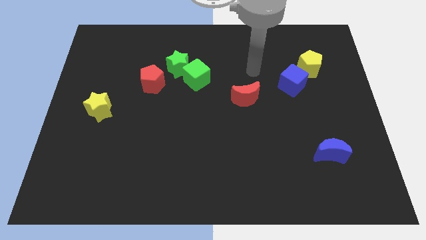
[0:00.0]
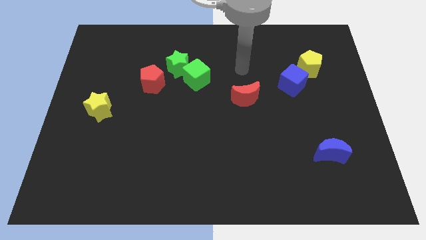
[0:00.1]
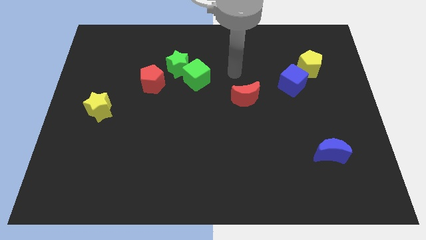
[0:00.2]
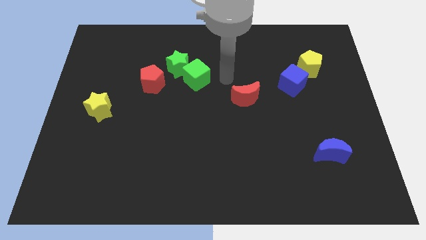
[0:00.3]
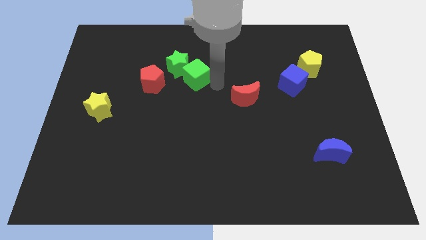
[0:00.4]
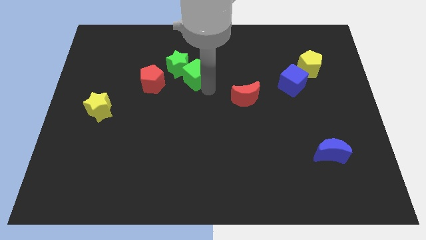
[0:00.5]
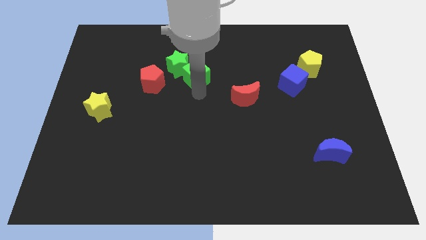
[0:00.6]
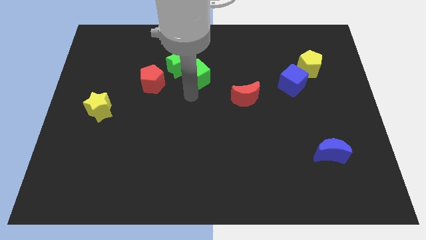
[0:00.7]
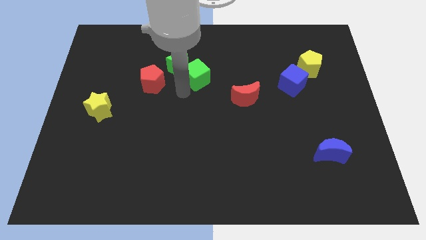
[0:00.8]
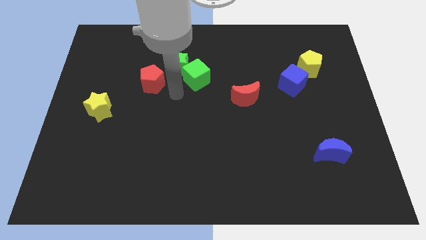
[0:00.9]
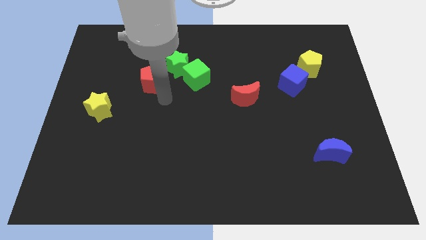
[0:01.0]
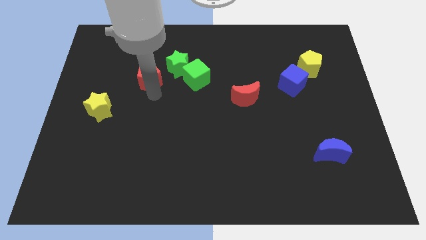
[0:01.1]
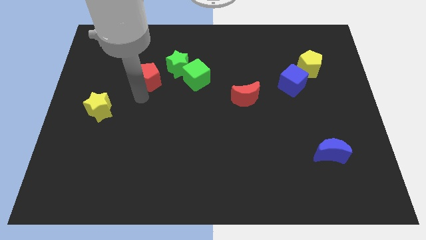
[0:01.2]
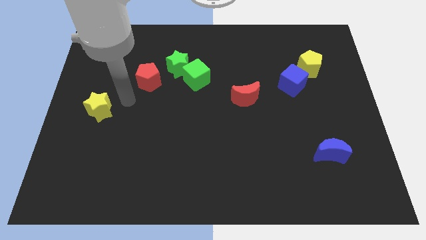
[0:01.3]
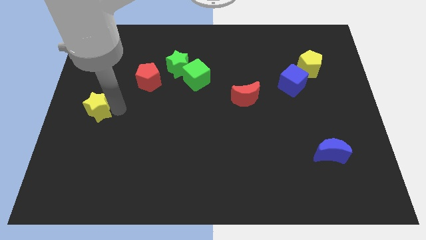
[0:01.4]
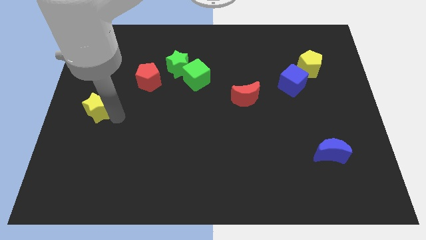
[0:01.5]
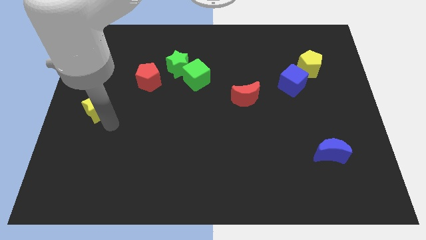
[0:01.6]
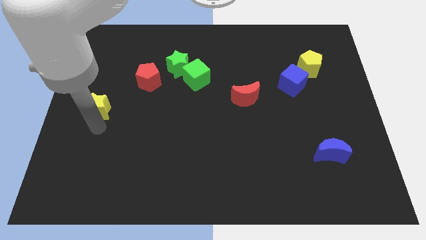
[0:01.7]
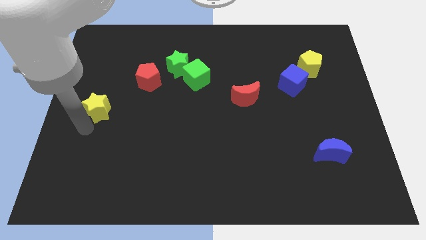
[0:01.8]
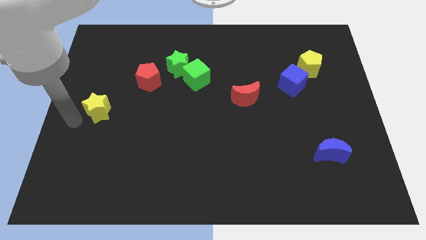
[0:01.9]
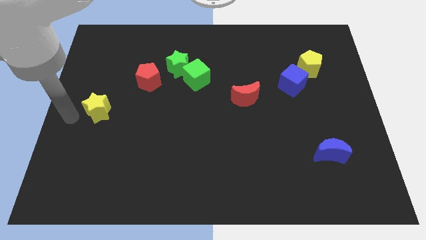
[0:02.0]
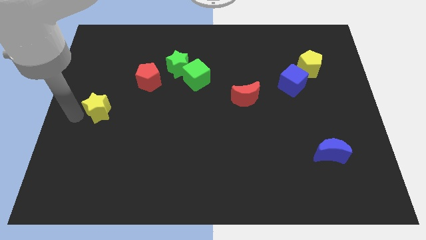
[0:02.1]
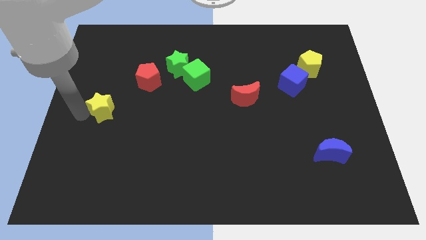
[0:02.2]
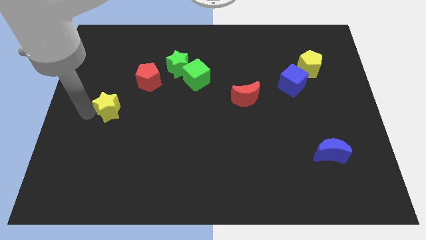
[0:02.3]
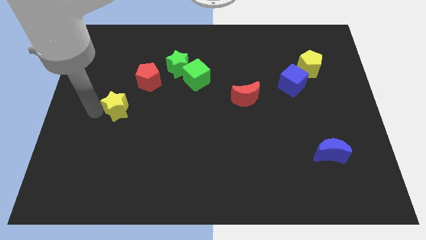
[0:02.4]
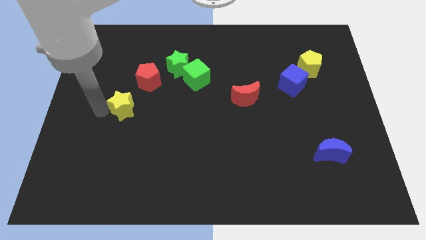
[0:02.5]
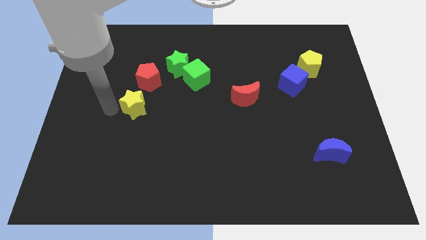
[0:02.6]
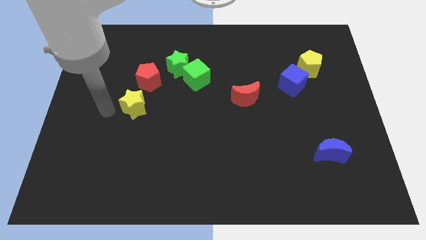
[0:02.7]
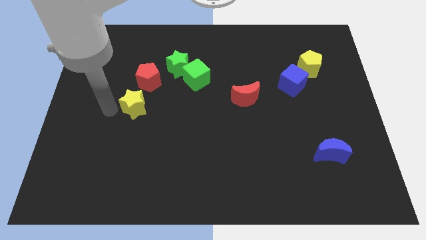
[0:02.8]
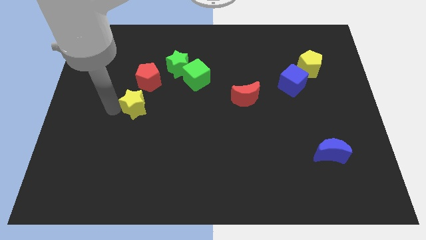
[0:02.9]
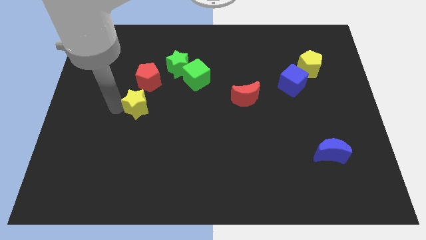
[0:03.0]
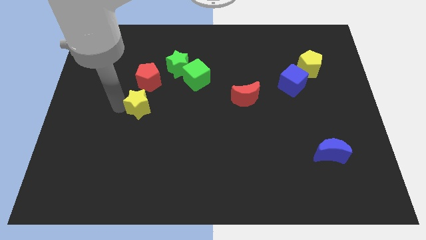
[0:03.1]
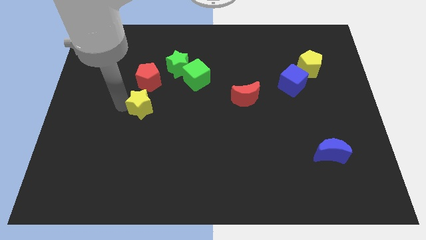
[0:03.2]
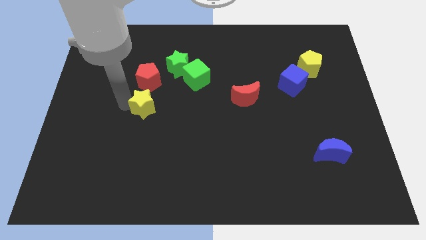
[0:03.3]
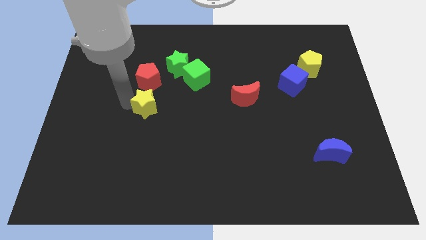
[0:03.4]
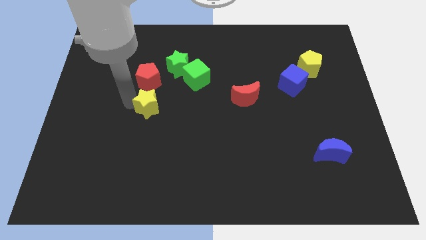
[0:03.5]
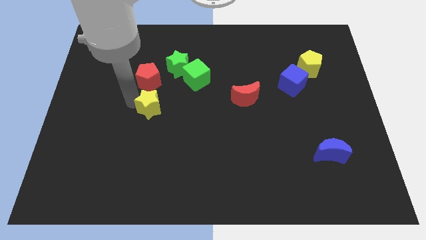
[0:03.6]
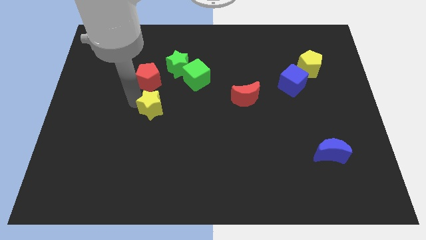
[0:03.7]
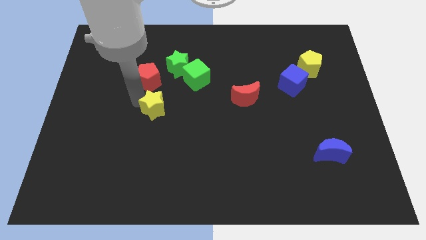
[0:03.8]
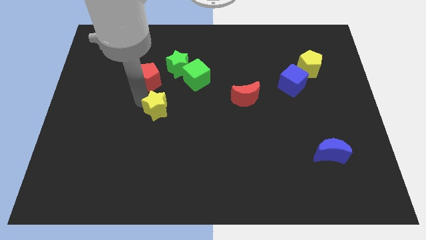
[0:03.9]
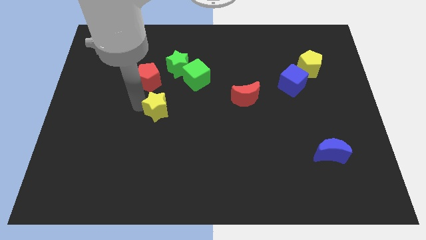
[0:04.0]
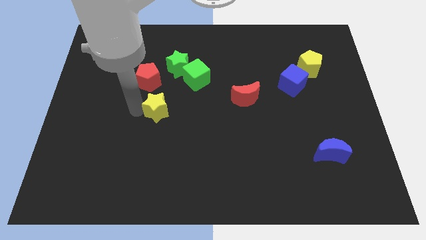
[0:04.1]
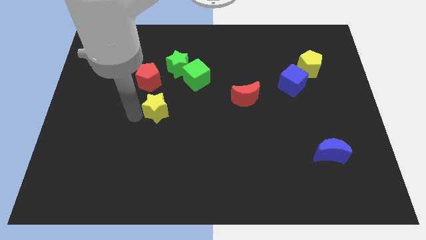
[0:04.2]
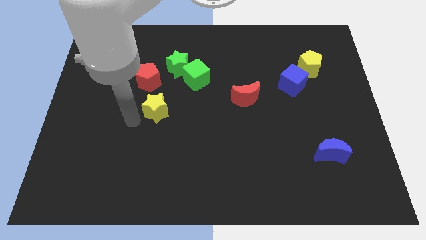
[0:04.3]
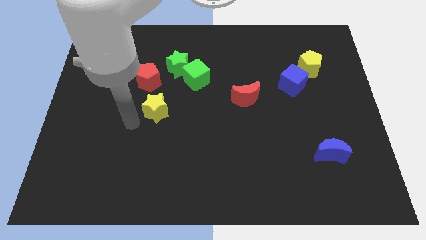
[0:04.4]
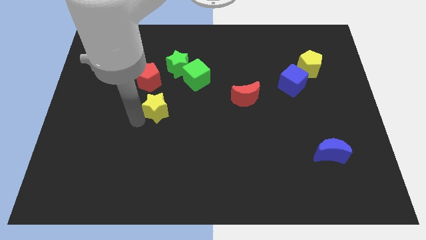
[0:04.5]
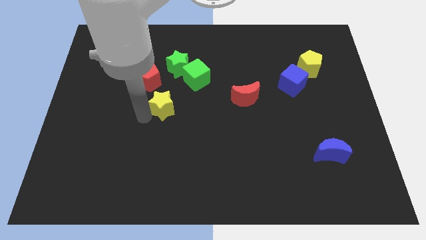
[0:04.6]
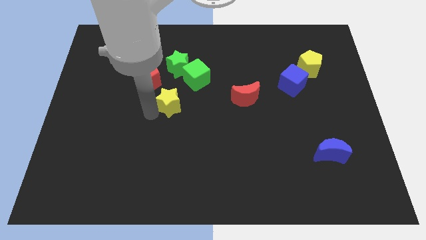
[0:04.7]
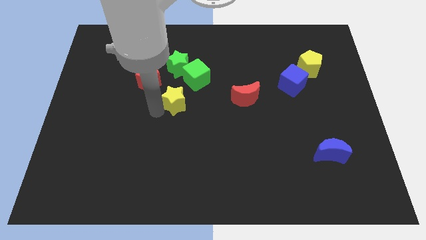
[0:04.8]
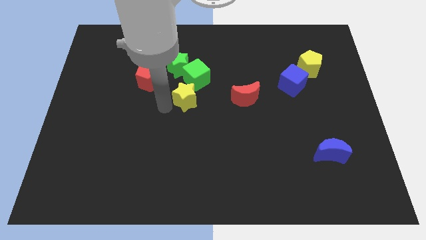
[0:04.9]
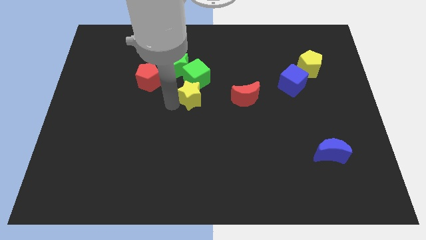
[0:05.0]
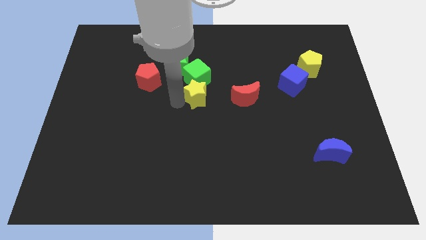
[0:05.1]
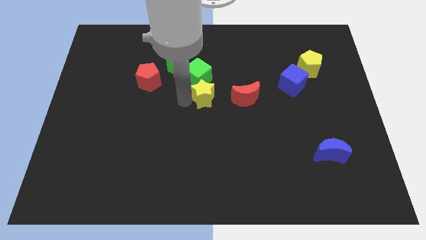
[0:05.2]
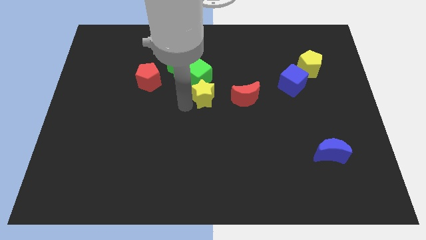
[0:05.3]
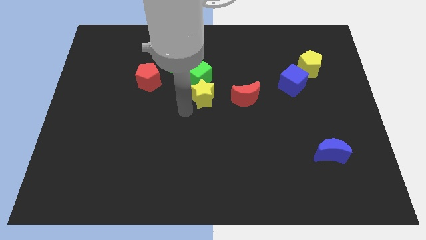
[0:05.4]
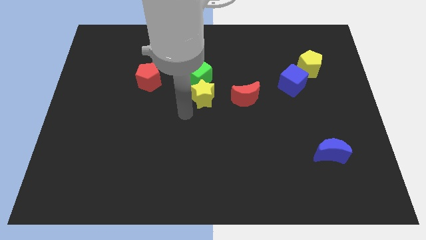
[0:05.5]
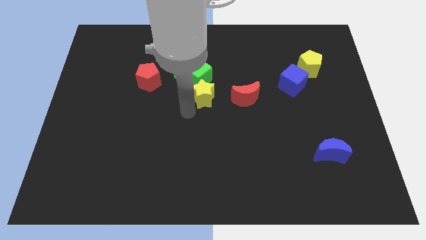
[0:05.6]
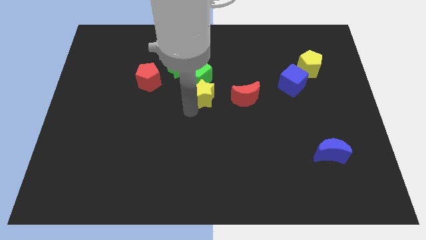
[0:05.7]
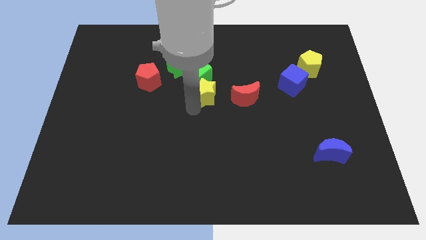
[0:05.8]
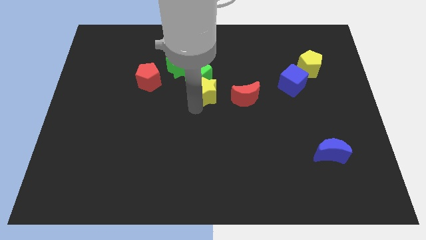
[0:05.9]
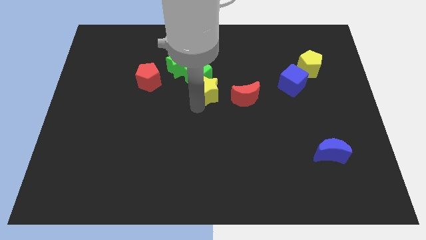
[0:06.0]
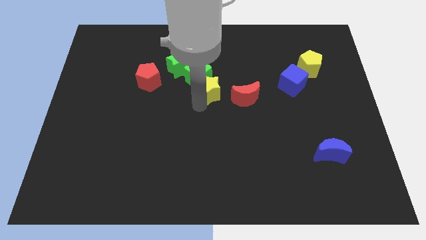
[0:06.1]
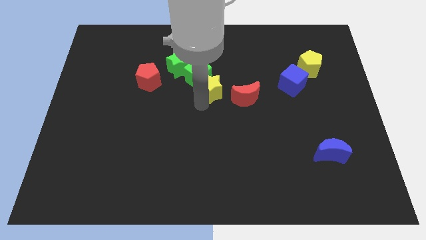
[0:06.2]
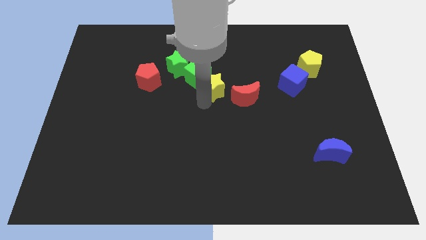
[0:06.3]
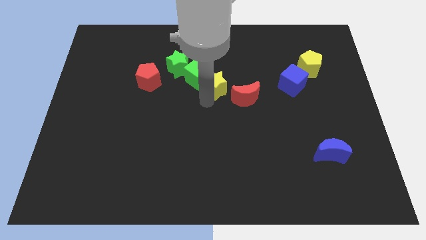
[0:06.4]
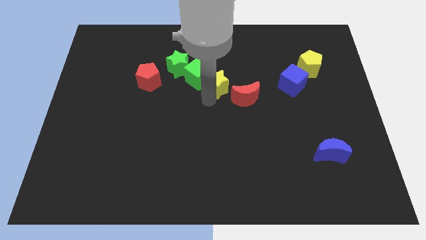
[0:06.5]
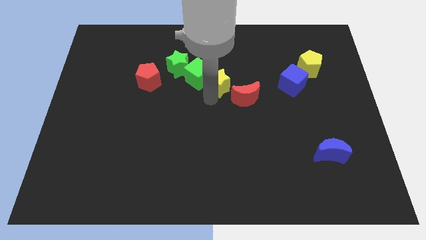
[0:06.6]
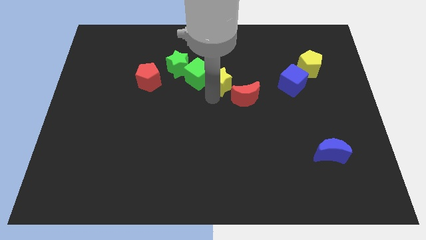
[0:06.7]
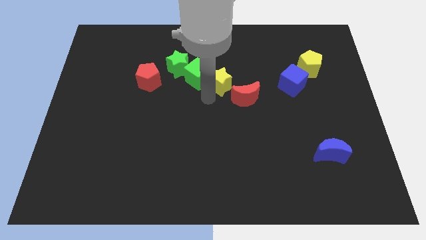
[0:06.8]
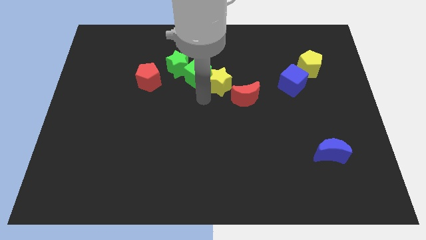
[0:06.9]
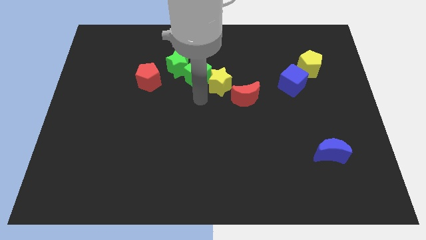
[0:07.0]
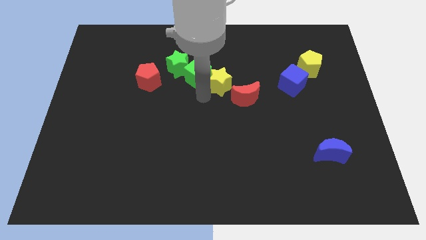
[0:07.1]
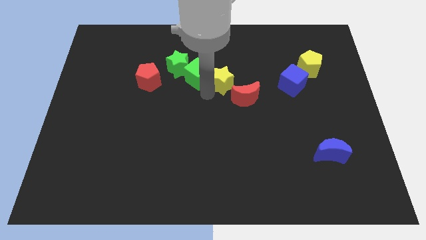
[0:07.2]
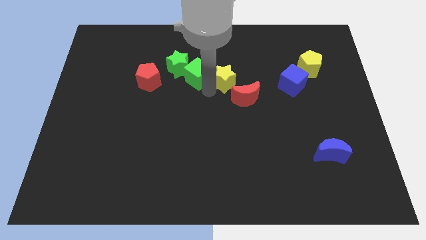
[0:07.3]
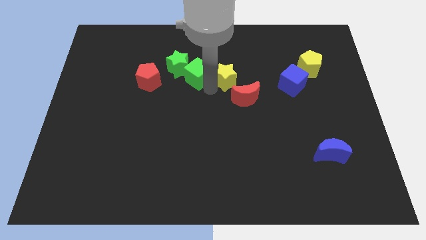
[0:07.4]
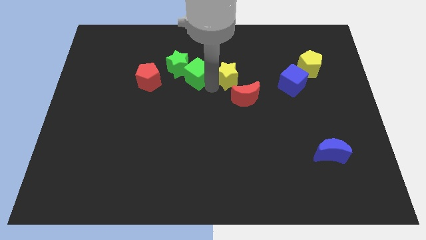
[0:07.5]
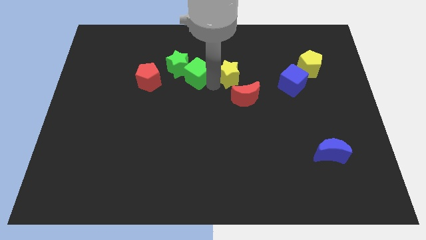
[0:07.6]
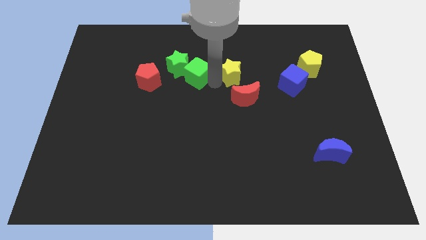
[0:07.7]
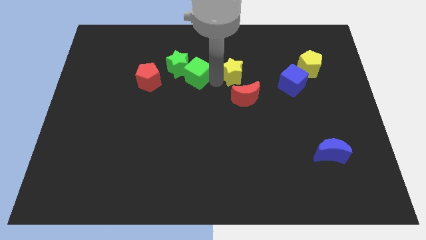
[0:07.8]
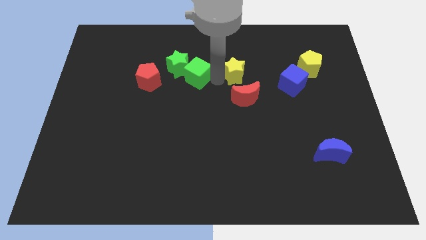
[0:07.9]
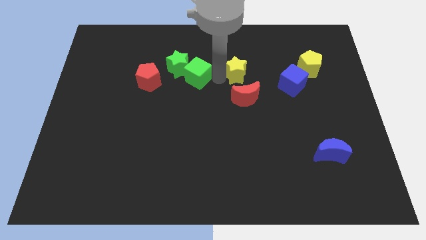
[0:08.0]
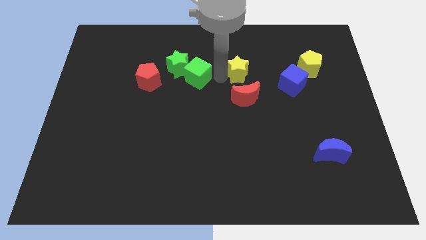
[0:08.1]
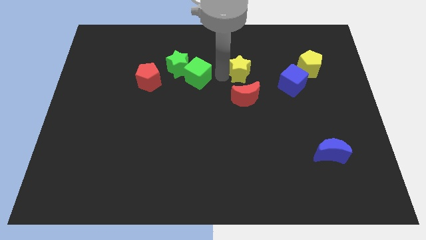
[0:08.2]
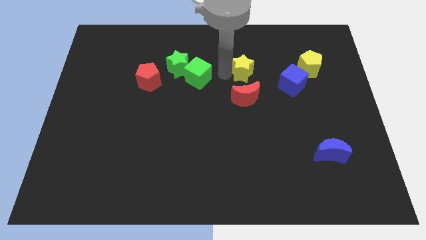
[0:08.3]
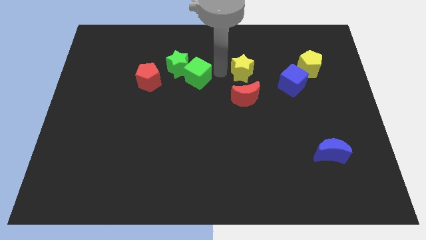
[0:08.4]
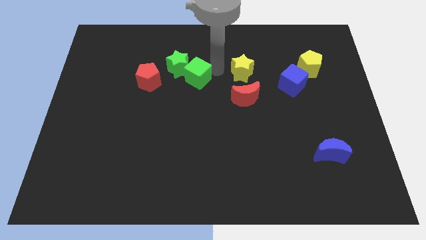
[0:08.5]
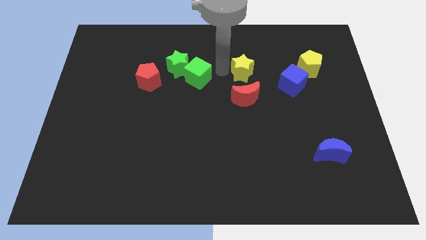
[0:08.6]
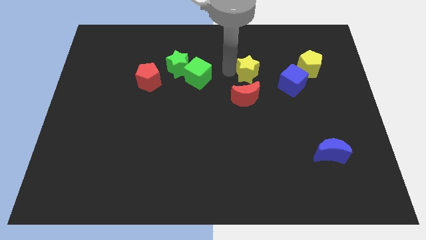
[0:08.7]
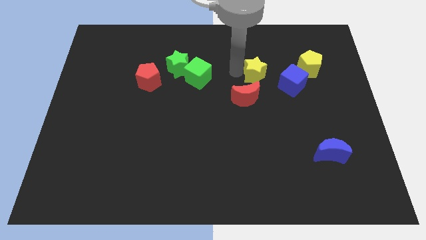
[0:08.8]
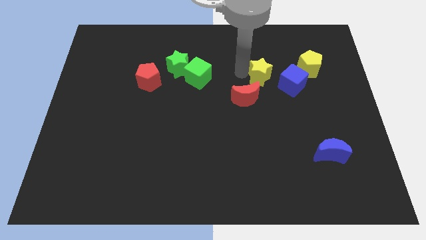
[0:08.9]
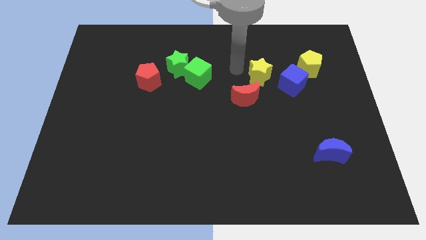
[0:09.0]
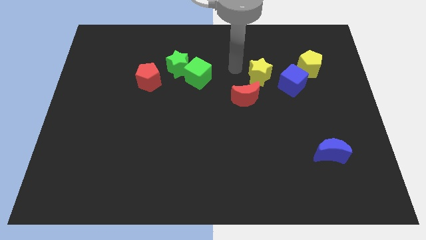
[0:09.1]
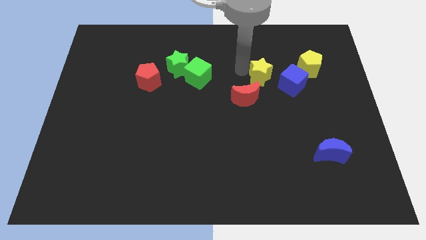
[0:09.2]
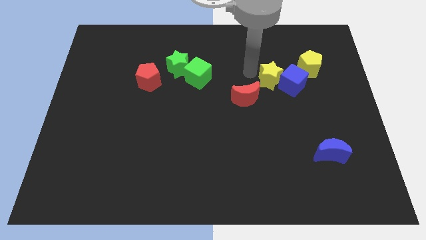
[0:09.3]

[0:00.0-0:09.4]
slide the yellow star to the blue cube
